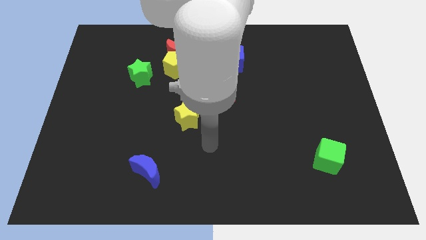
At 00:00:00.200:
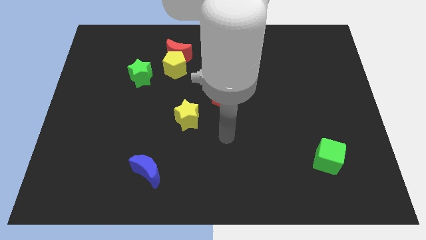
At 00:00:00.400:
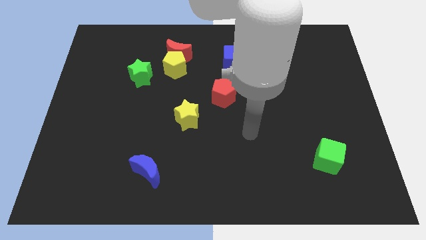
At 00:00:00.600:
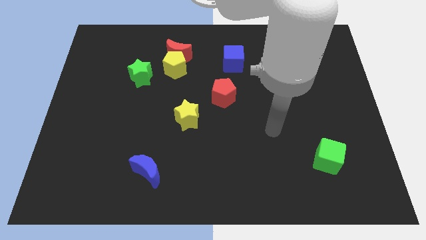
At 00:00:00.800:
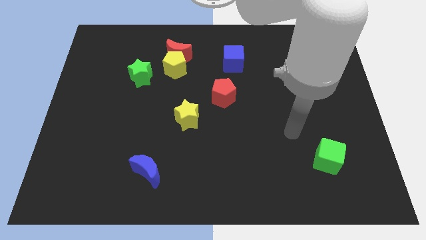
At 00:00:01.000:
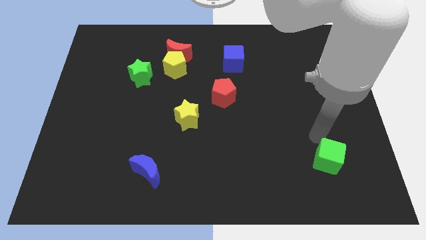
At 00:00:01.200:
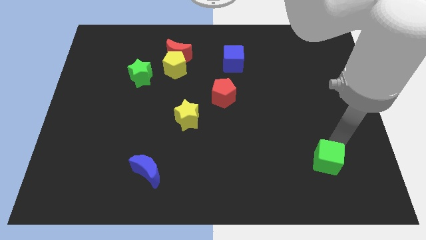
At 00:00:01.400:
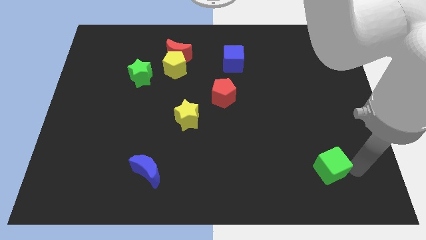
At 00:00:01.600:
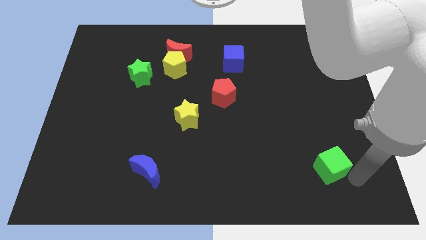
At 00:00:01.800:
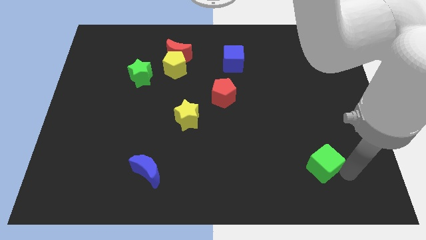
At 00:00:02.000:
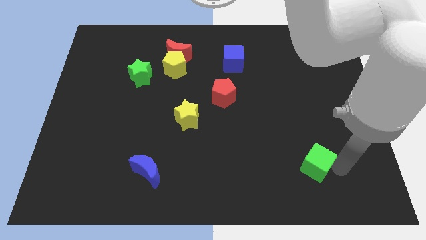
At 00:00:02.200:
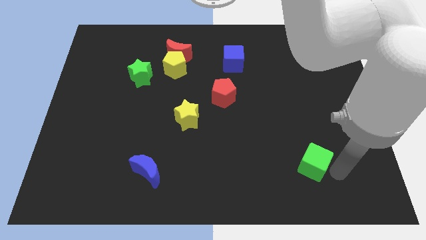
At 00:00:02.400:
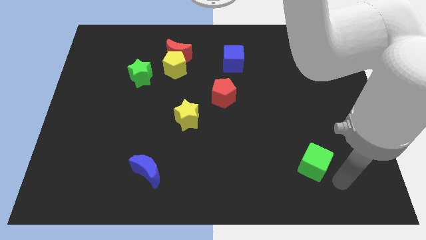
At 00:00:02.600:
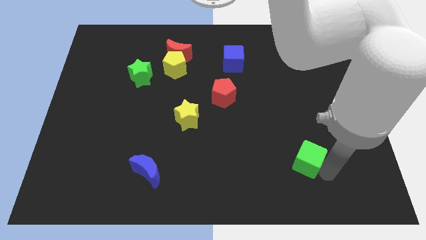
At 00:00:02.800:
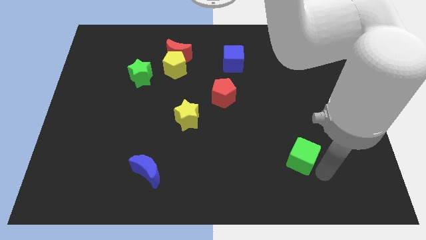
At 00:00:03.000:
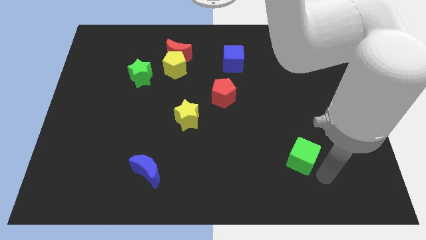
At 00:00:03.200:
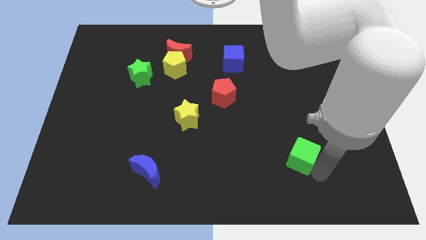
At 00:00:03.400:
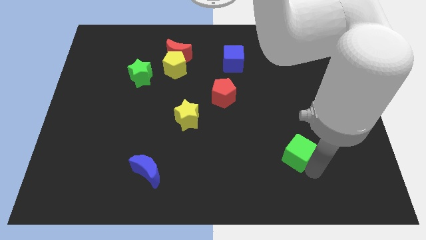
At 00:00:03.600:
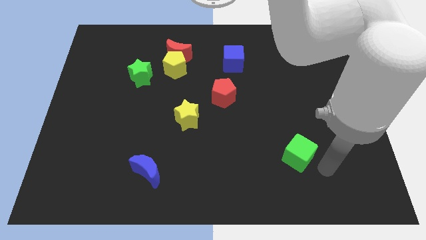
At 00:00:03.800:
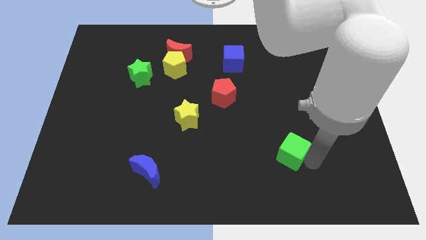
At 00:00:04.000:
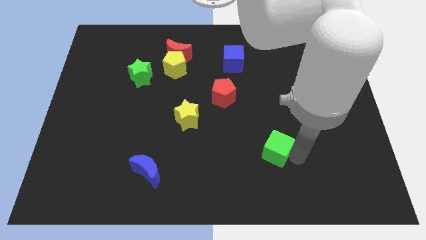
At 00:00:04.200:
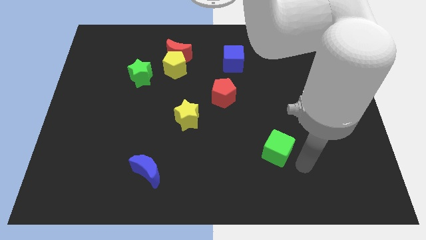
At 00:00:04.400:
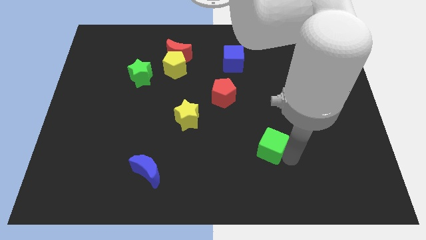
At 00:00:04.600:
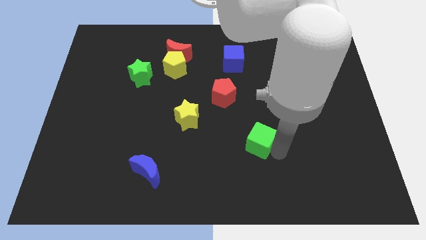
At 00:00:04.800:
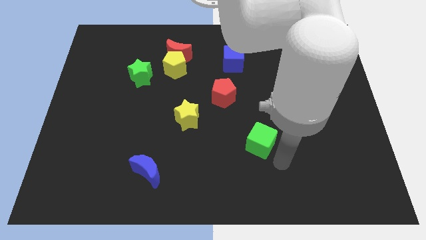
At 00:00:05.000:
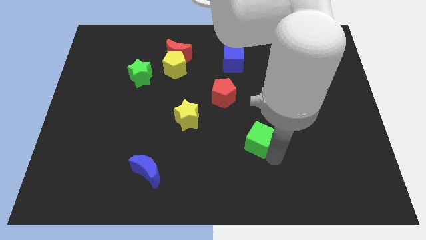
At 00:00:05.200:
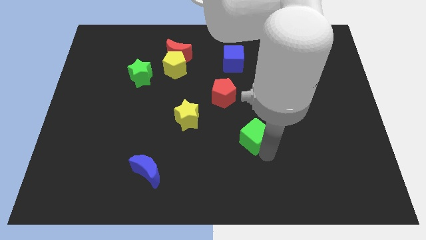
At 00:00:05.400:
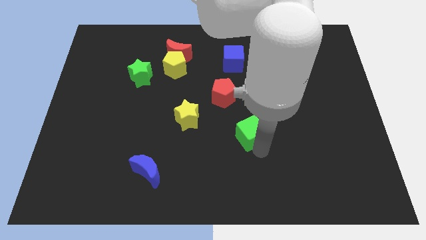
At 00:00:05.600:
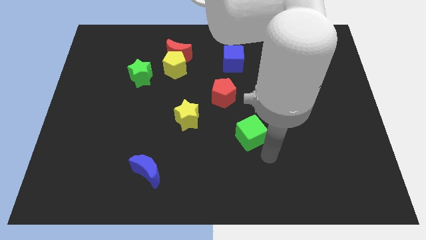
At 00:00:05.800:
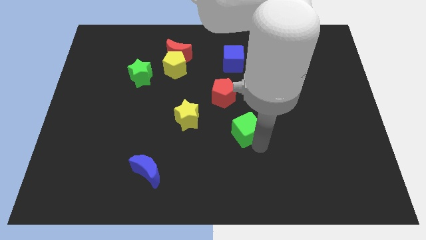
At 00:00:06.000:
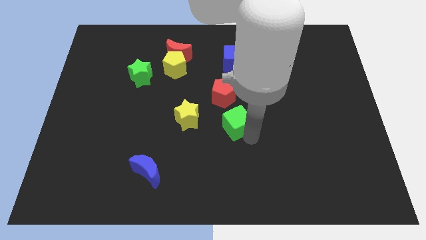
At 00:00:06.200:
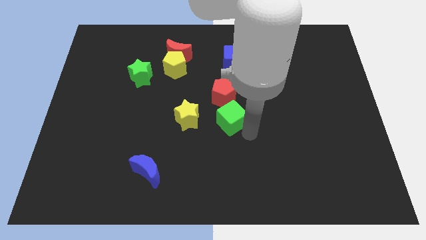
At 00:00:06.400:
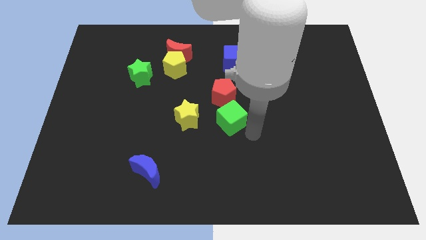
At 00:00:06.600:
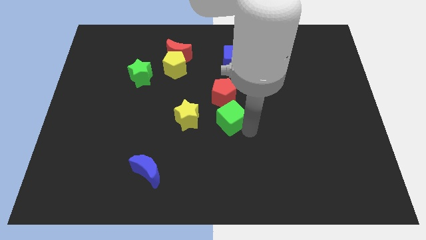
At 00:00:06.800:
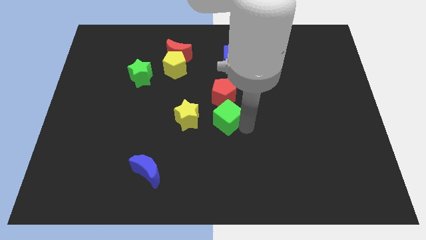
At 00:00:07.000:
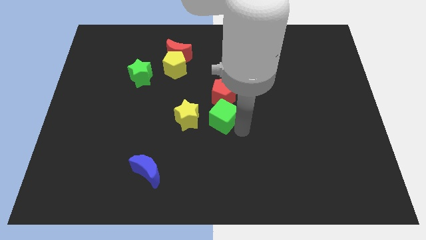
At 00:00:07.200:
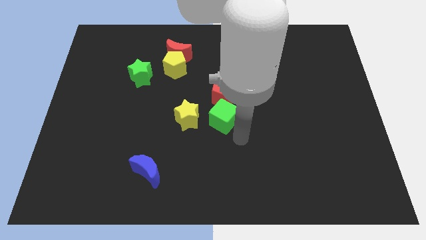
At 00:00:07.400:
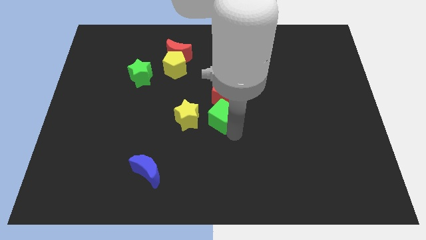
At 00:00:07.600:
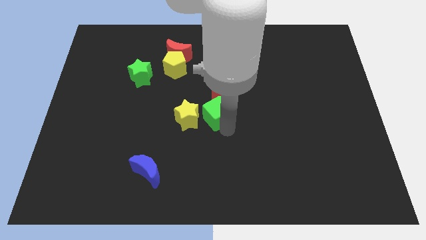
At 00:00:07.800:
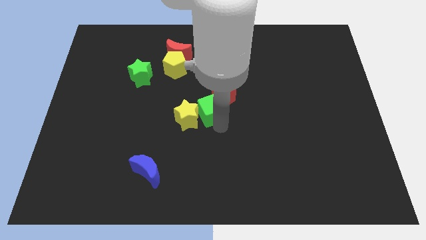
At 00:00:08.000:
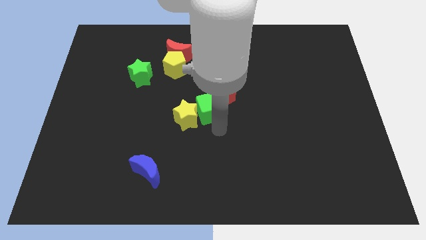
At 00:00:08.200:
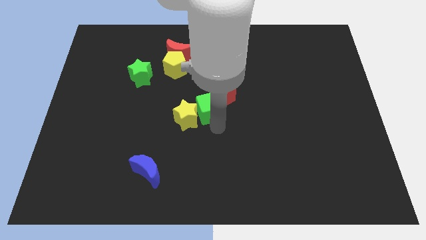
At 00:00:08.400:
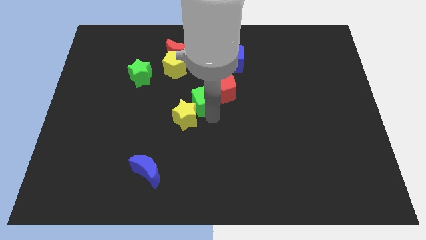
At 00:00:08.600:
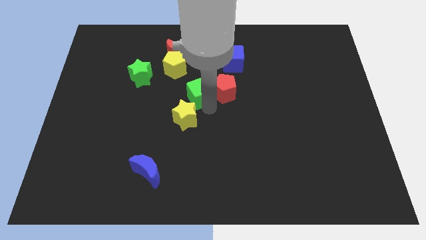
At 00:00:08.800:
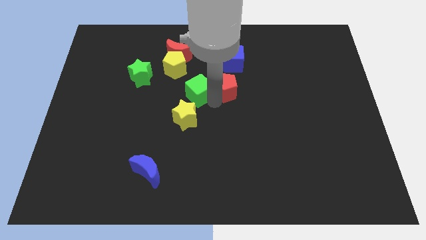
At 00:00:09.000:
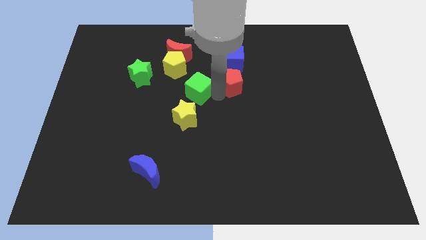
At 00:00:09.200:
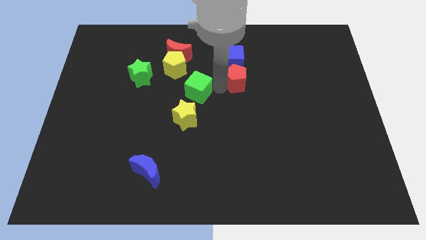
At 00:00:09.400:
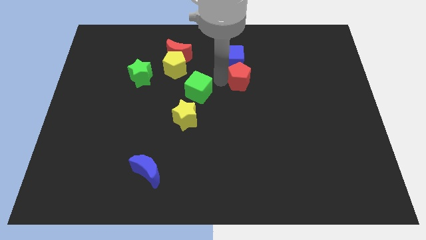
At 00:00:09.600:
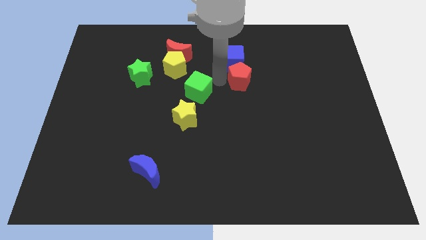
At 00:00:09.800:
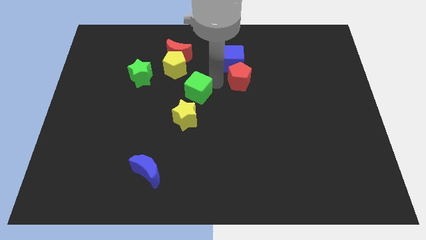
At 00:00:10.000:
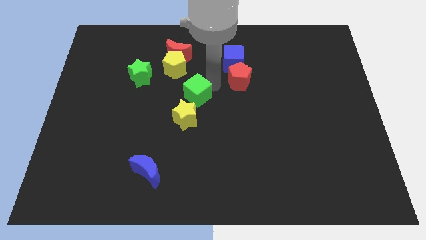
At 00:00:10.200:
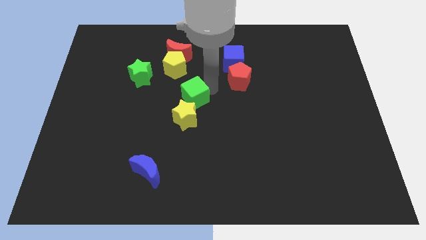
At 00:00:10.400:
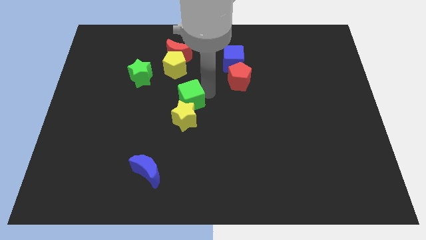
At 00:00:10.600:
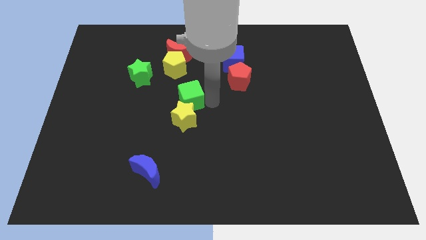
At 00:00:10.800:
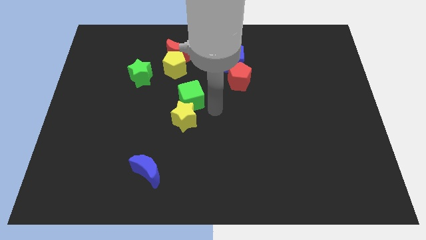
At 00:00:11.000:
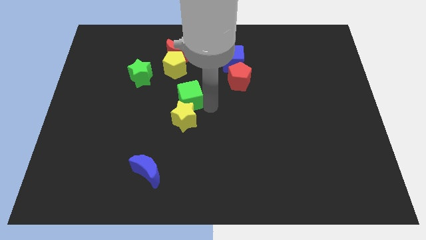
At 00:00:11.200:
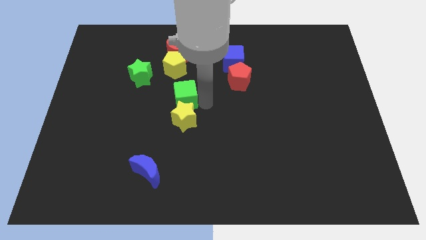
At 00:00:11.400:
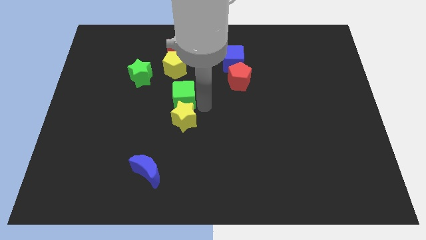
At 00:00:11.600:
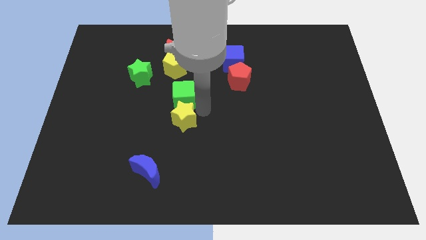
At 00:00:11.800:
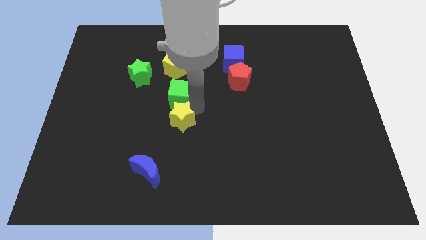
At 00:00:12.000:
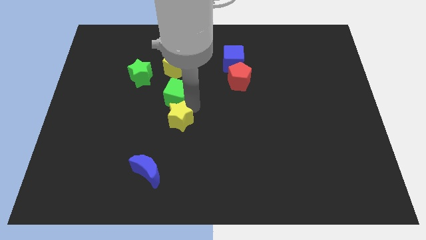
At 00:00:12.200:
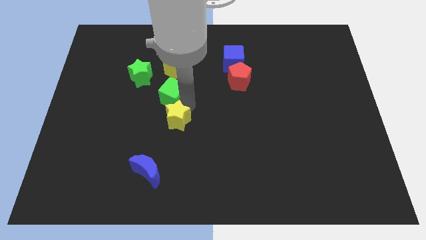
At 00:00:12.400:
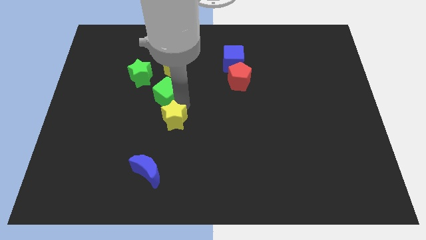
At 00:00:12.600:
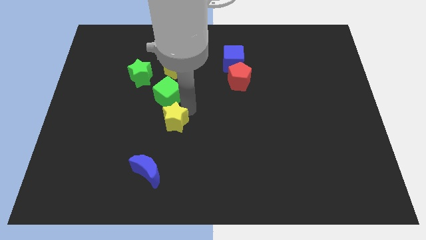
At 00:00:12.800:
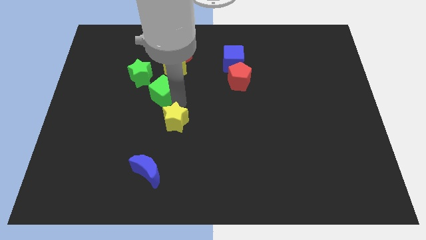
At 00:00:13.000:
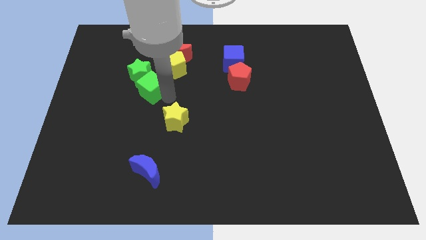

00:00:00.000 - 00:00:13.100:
push the green cube towards the green star
